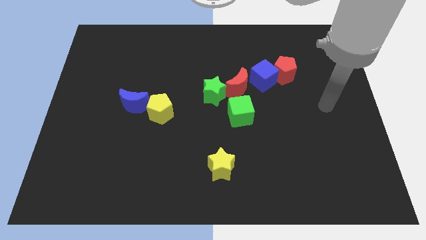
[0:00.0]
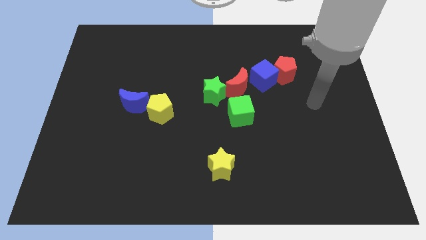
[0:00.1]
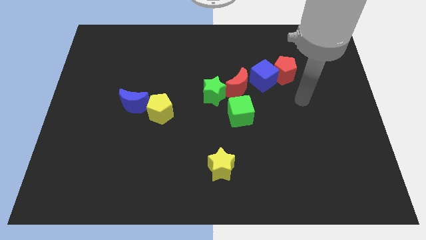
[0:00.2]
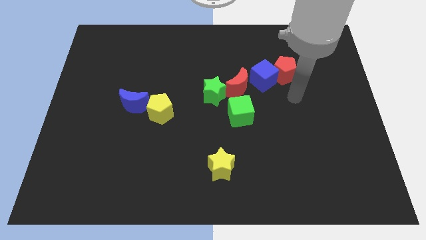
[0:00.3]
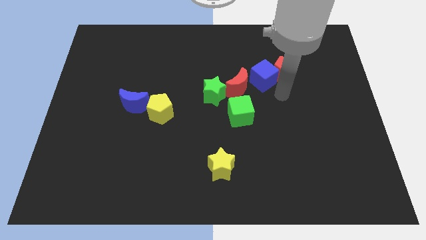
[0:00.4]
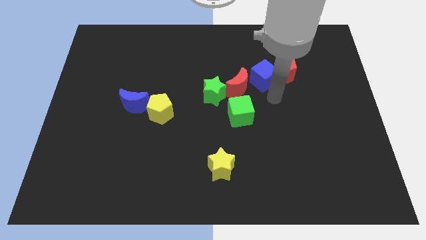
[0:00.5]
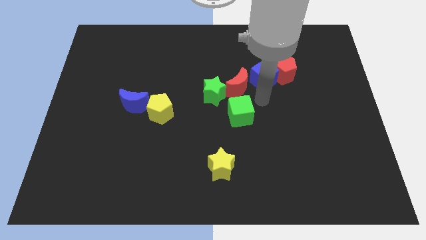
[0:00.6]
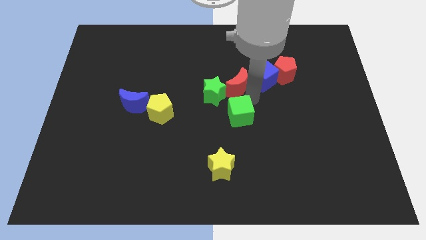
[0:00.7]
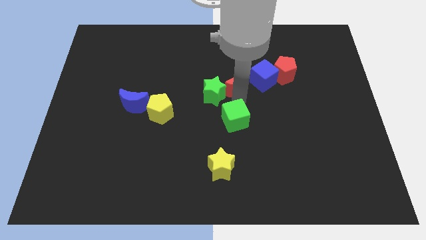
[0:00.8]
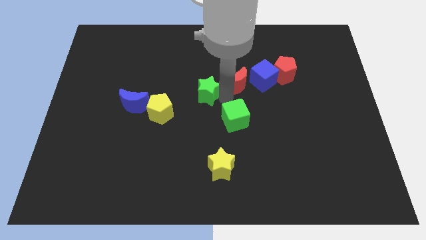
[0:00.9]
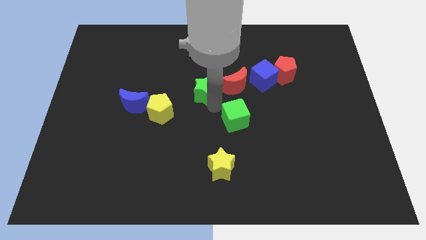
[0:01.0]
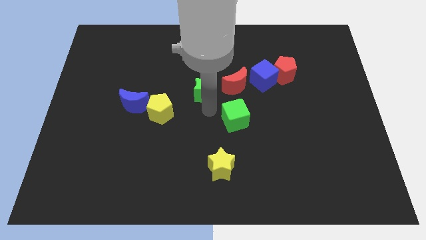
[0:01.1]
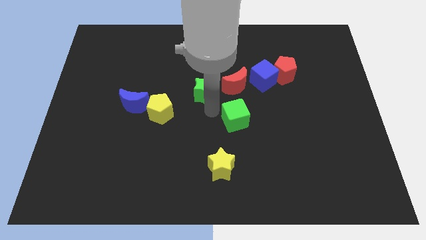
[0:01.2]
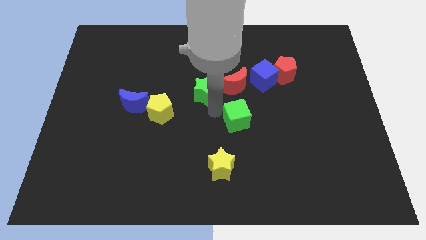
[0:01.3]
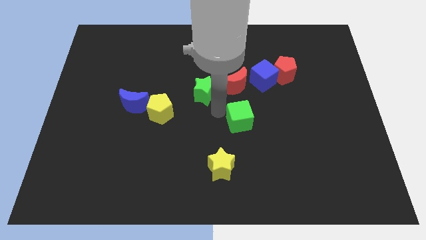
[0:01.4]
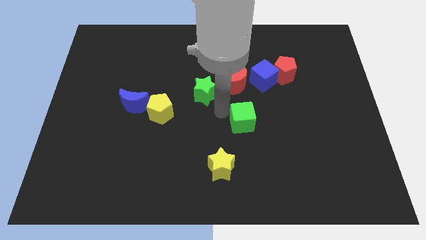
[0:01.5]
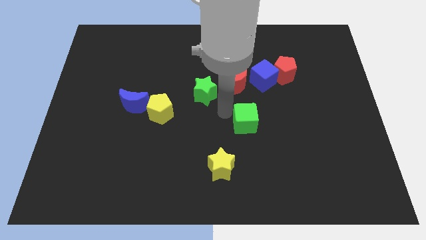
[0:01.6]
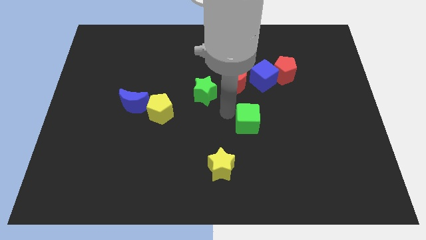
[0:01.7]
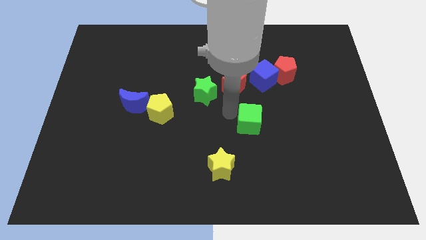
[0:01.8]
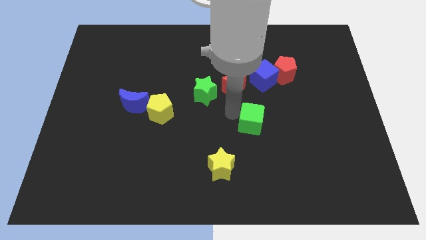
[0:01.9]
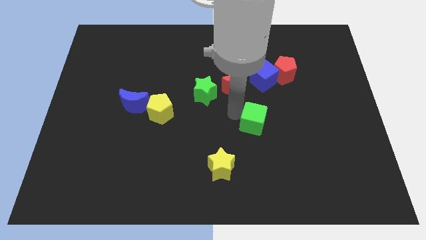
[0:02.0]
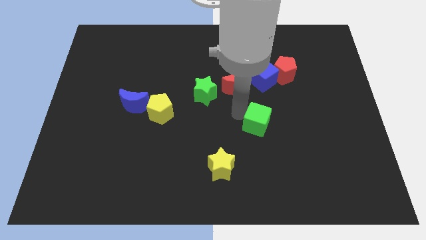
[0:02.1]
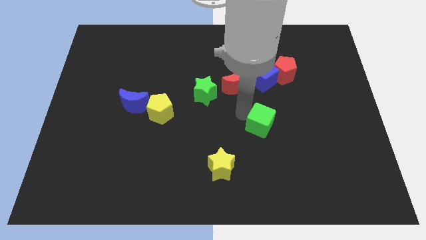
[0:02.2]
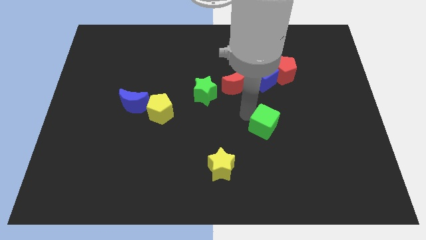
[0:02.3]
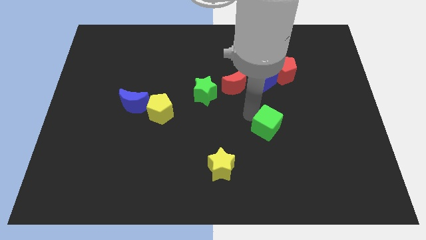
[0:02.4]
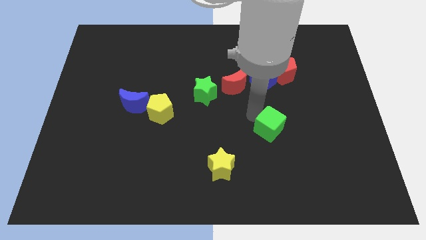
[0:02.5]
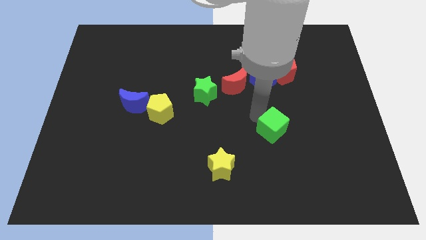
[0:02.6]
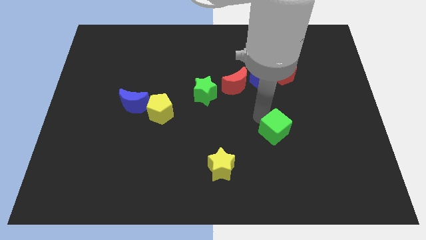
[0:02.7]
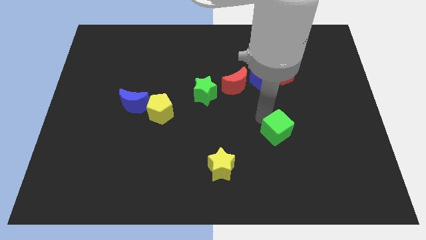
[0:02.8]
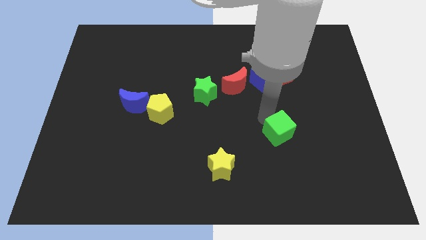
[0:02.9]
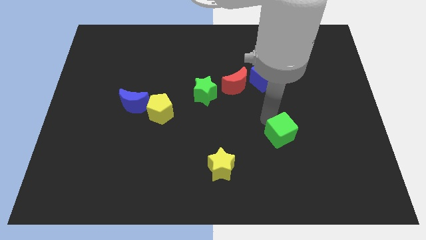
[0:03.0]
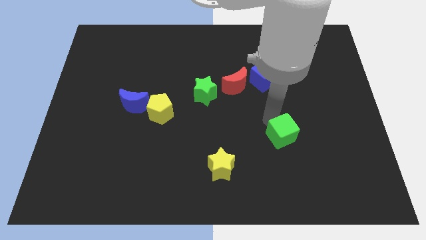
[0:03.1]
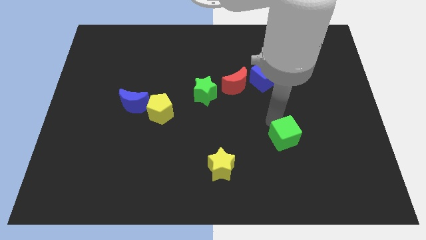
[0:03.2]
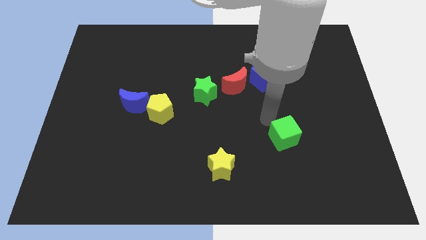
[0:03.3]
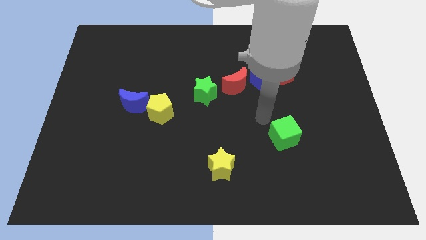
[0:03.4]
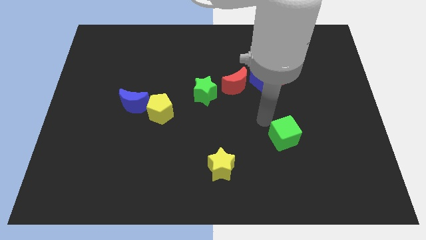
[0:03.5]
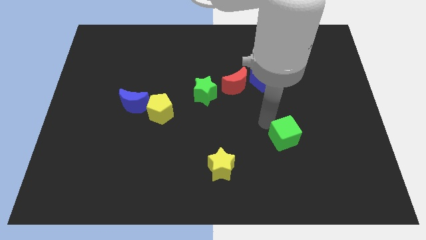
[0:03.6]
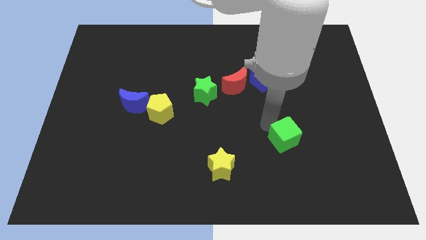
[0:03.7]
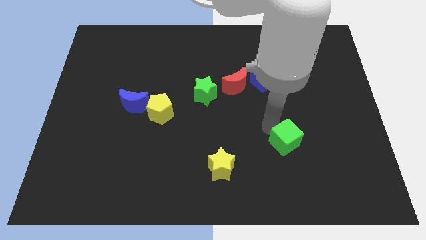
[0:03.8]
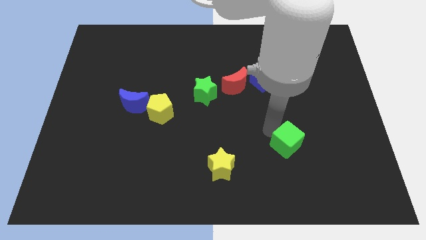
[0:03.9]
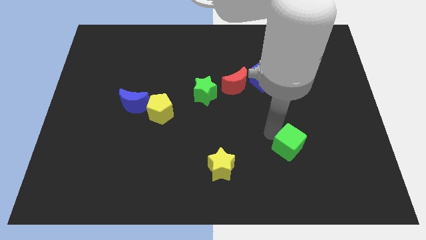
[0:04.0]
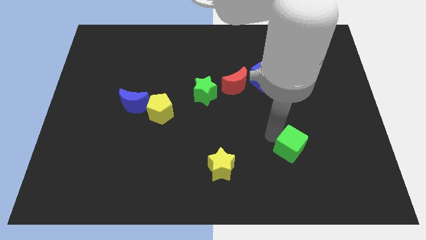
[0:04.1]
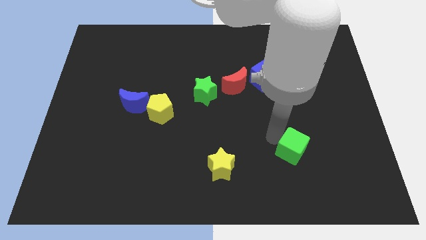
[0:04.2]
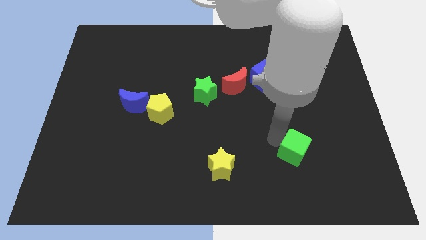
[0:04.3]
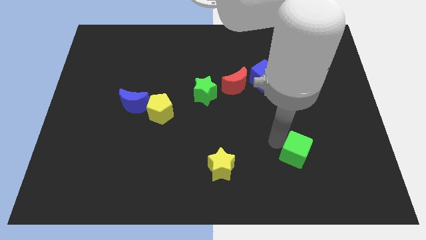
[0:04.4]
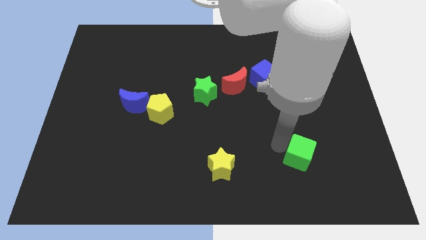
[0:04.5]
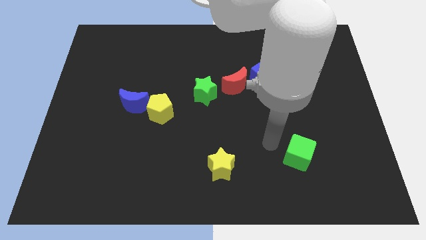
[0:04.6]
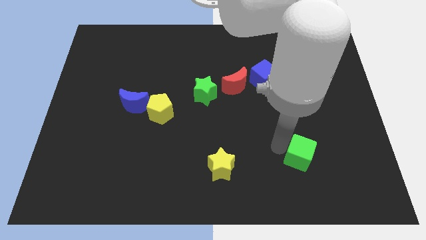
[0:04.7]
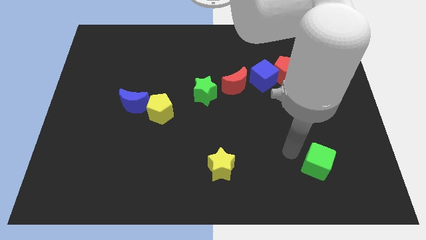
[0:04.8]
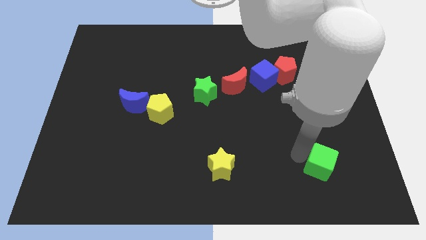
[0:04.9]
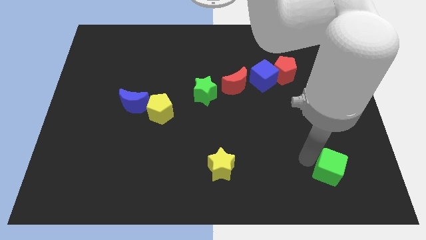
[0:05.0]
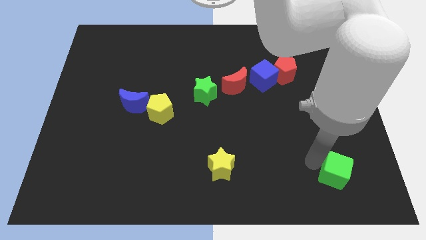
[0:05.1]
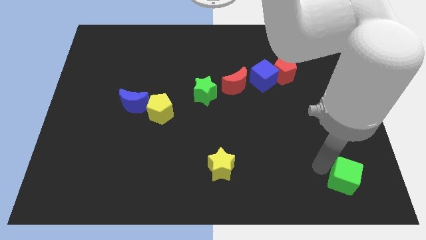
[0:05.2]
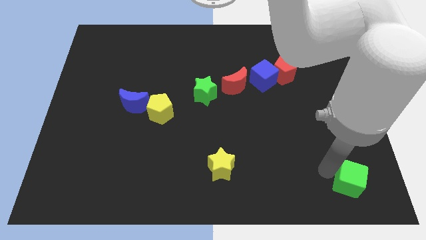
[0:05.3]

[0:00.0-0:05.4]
put the green cube to the bottom right

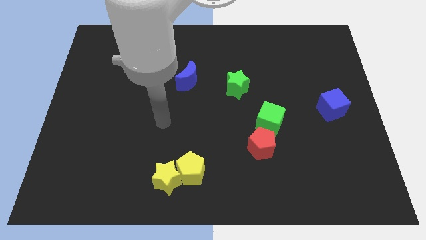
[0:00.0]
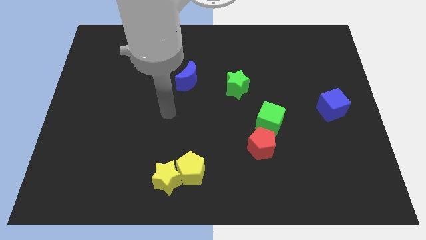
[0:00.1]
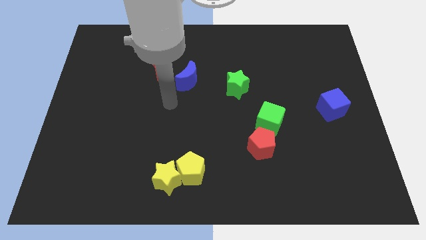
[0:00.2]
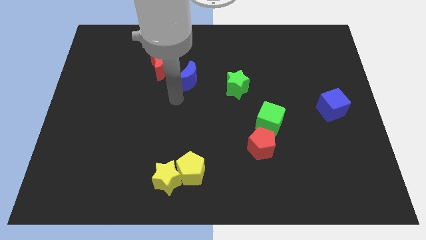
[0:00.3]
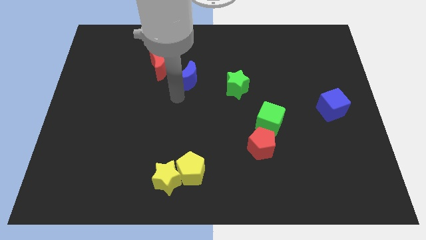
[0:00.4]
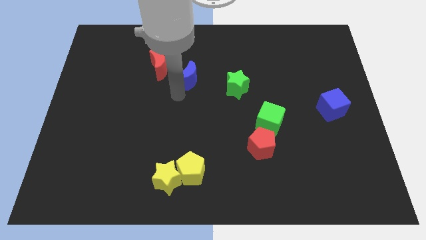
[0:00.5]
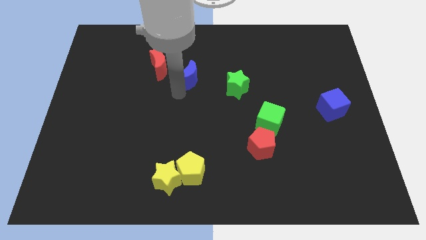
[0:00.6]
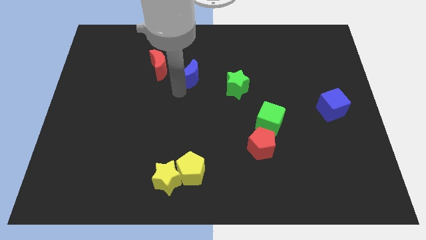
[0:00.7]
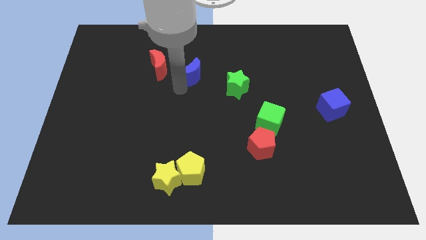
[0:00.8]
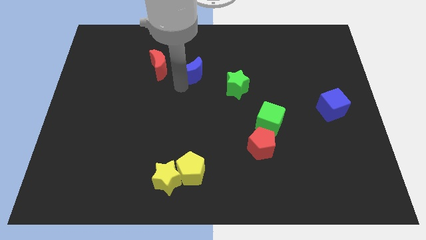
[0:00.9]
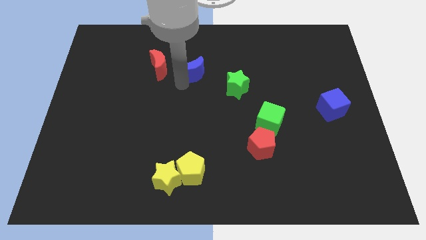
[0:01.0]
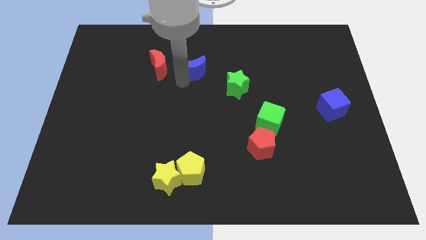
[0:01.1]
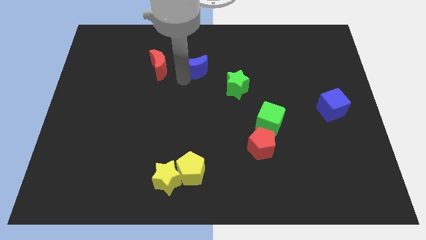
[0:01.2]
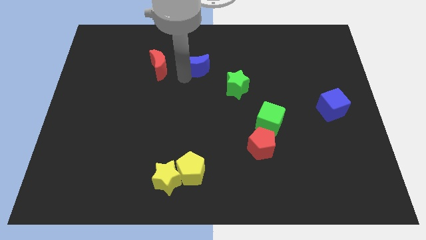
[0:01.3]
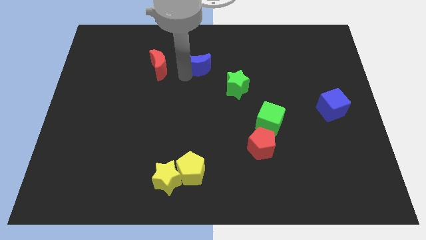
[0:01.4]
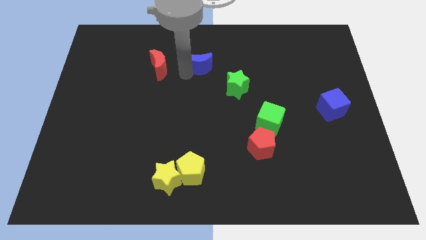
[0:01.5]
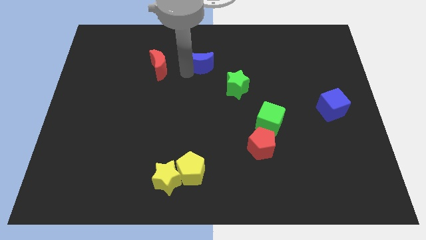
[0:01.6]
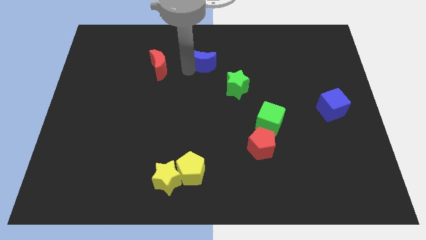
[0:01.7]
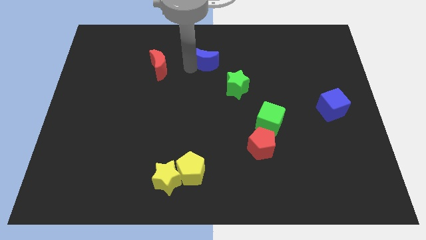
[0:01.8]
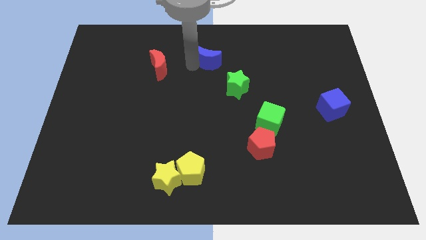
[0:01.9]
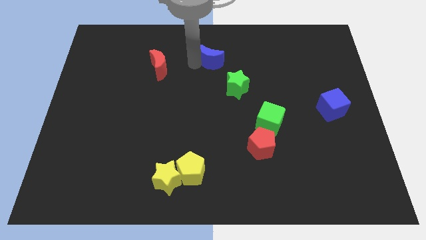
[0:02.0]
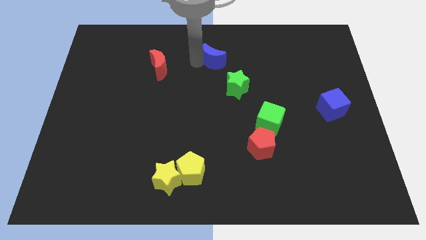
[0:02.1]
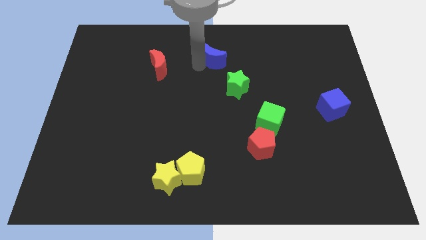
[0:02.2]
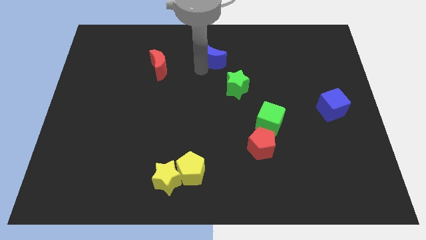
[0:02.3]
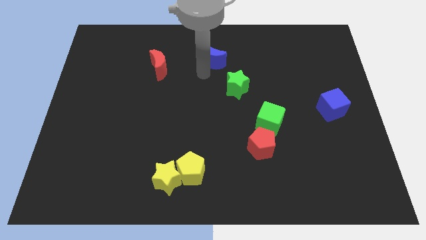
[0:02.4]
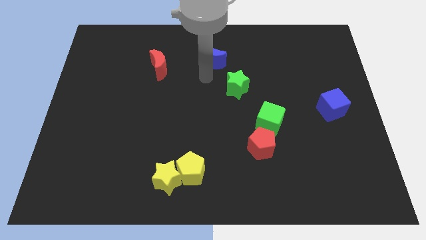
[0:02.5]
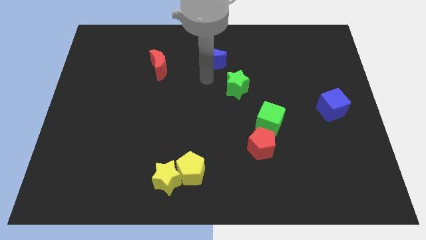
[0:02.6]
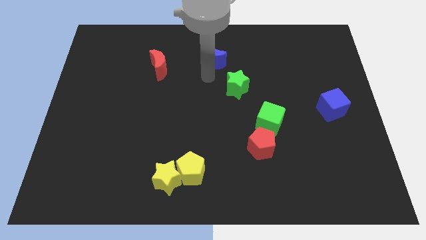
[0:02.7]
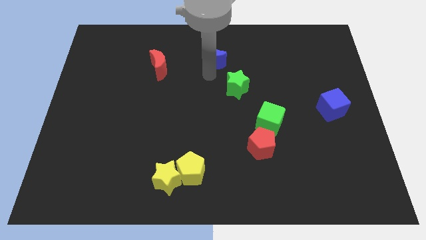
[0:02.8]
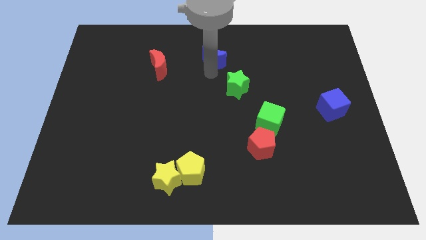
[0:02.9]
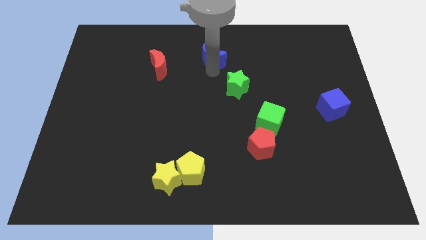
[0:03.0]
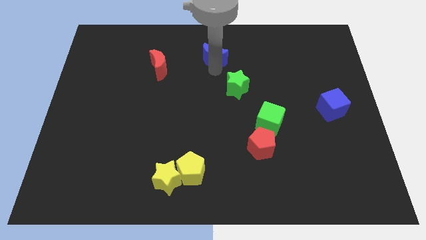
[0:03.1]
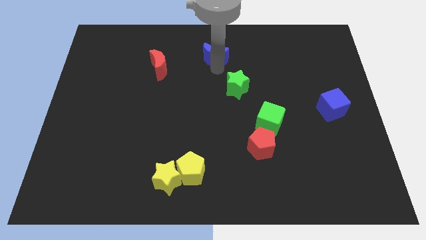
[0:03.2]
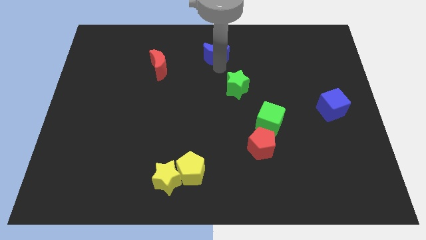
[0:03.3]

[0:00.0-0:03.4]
put the blue moon to the top
